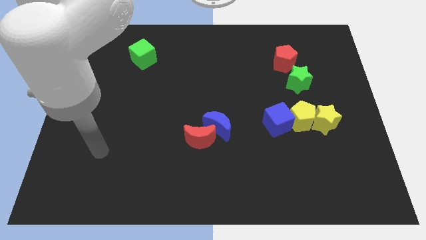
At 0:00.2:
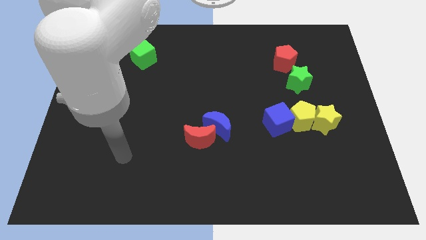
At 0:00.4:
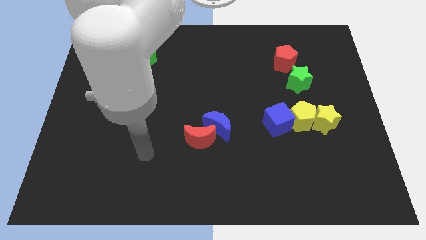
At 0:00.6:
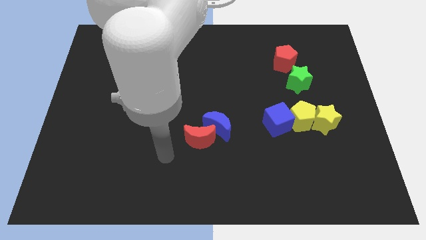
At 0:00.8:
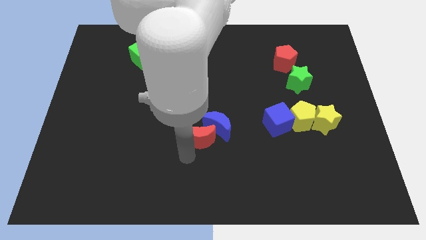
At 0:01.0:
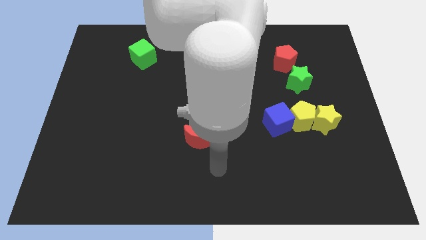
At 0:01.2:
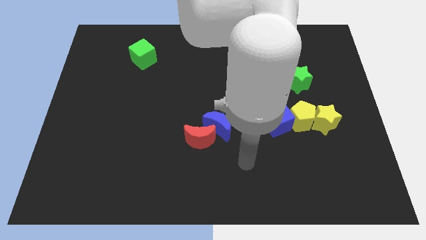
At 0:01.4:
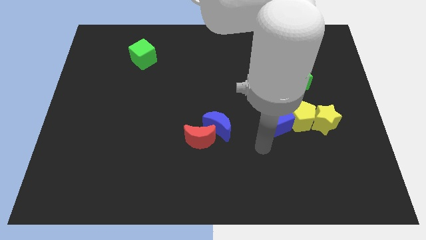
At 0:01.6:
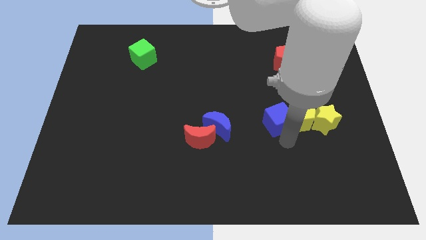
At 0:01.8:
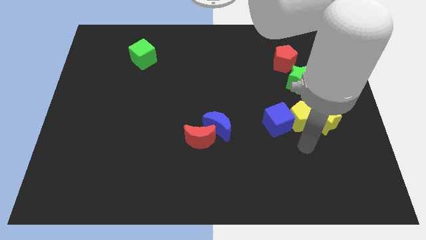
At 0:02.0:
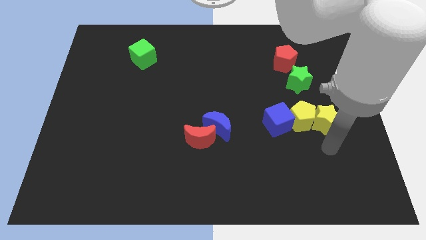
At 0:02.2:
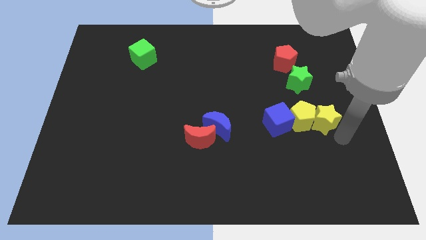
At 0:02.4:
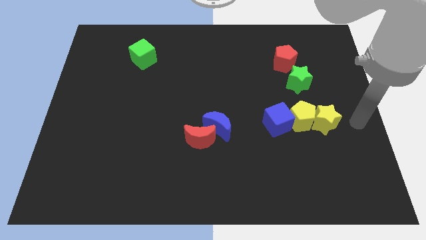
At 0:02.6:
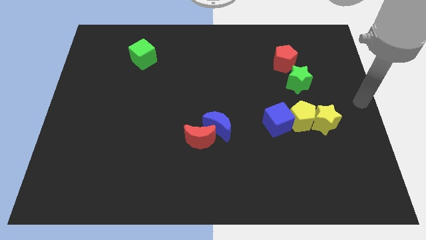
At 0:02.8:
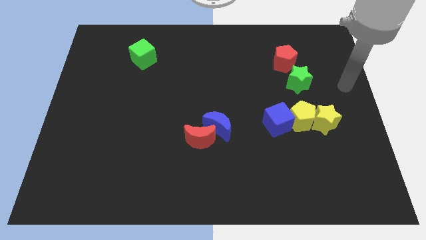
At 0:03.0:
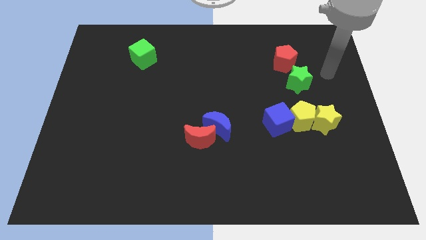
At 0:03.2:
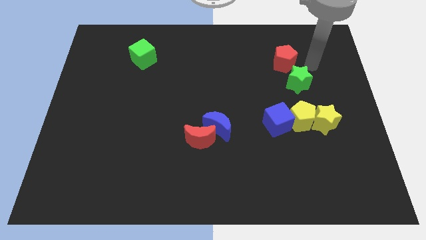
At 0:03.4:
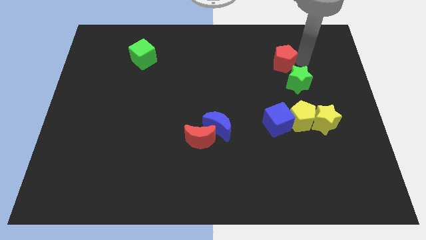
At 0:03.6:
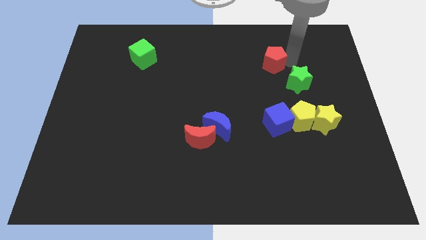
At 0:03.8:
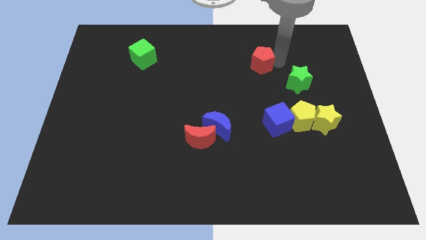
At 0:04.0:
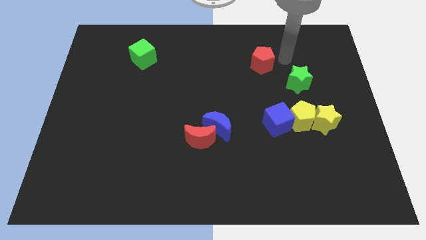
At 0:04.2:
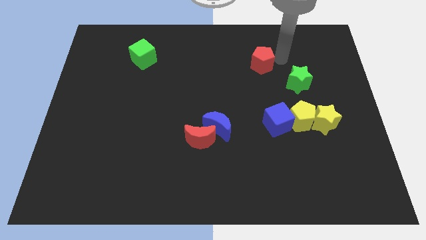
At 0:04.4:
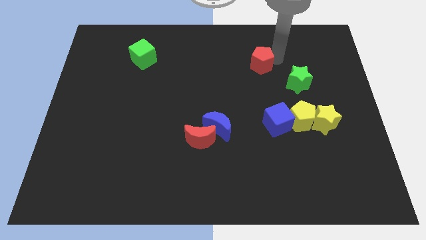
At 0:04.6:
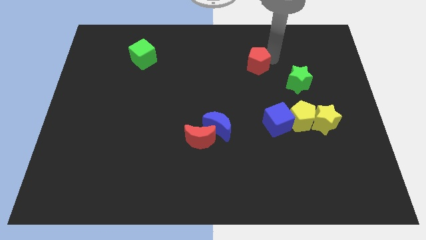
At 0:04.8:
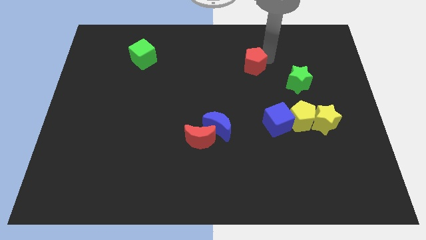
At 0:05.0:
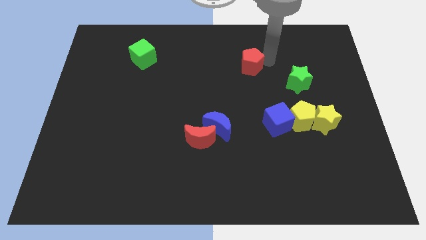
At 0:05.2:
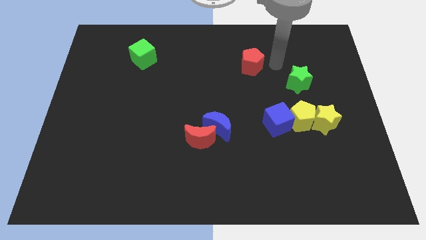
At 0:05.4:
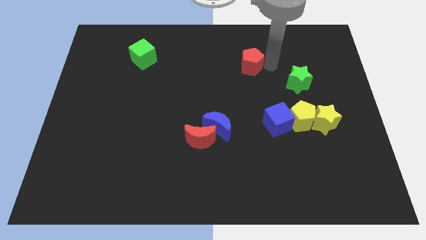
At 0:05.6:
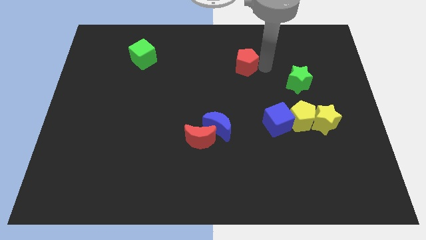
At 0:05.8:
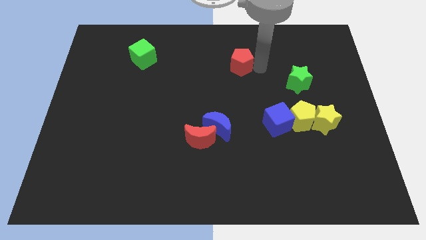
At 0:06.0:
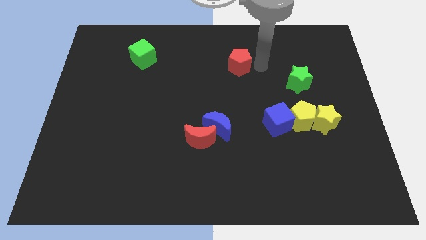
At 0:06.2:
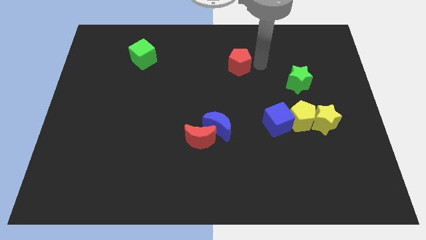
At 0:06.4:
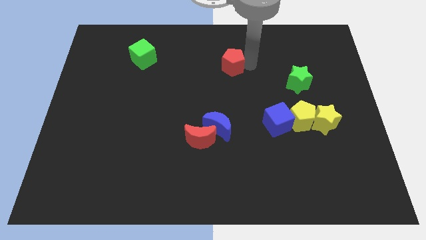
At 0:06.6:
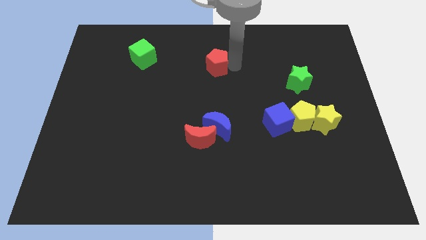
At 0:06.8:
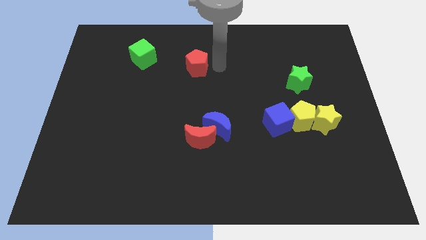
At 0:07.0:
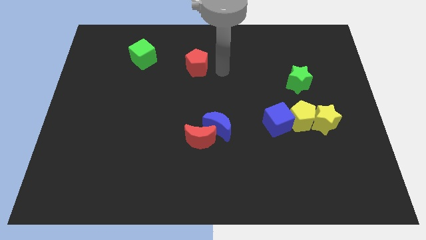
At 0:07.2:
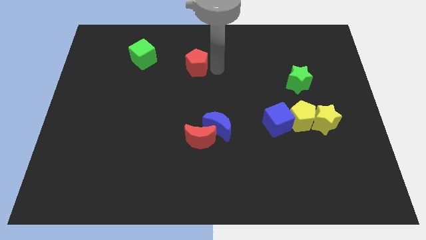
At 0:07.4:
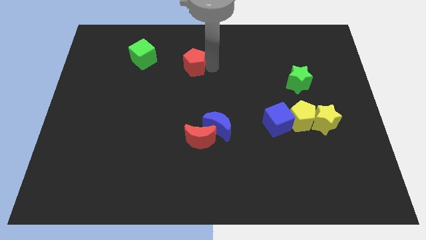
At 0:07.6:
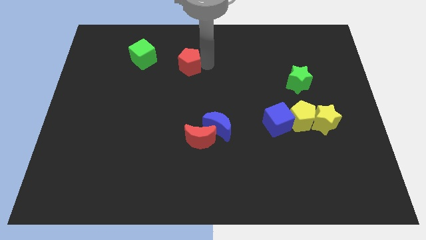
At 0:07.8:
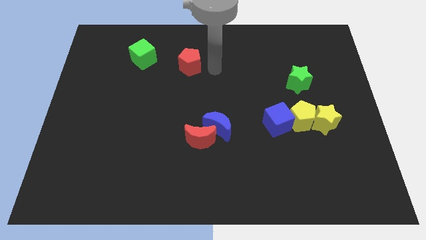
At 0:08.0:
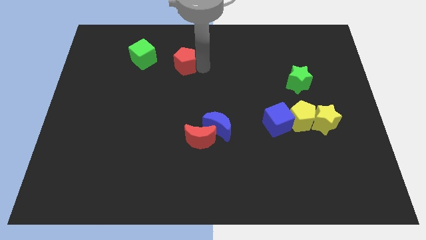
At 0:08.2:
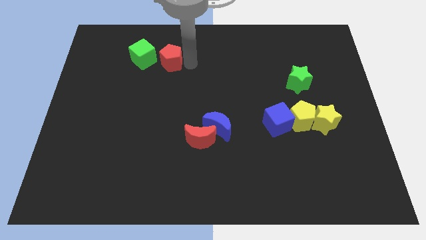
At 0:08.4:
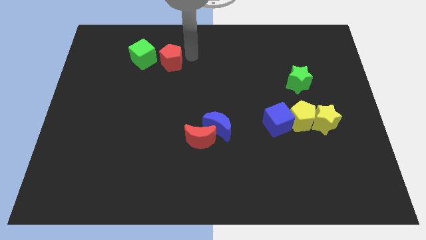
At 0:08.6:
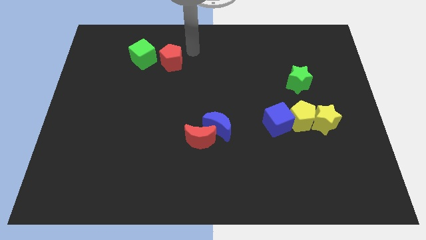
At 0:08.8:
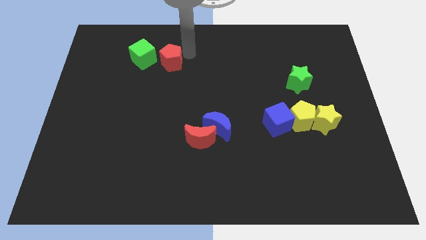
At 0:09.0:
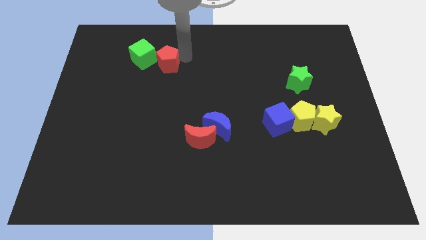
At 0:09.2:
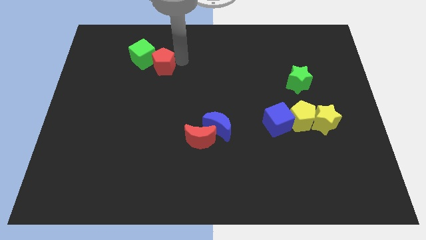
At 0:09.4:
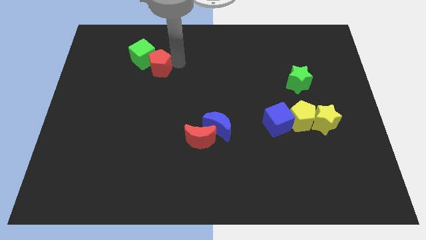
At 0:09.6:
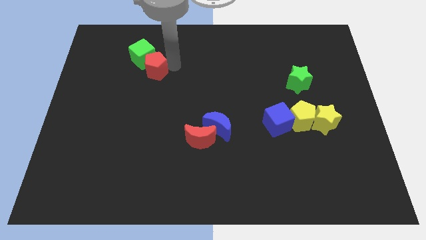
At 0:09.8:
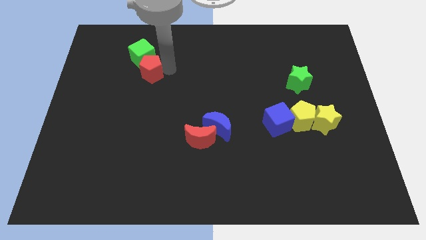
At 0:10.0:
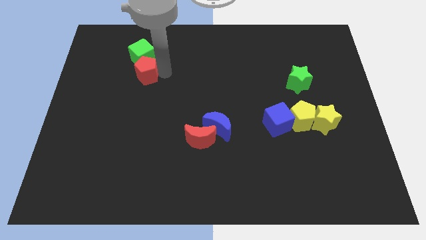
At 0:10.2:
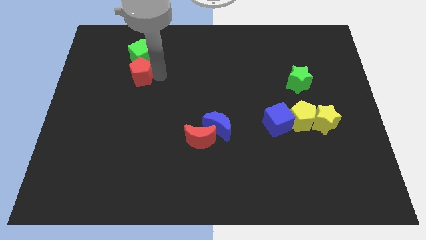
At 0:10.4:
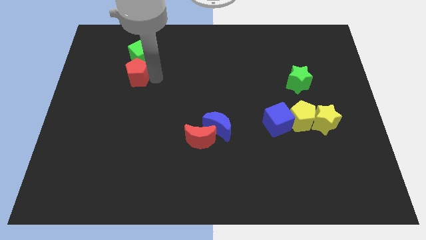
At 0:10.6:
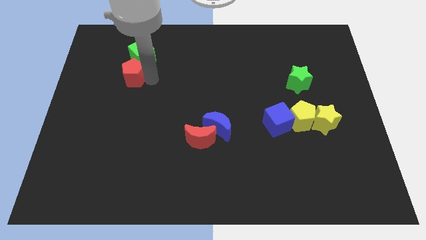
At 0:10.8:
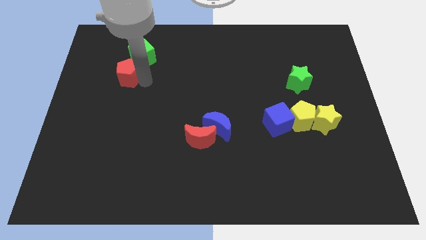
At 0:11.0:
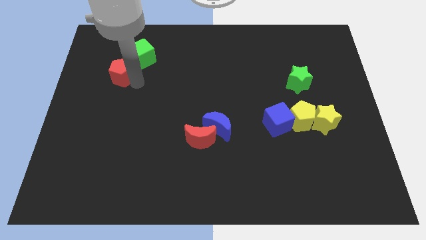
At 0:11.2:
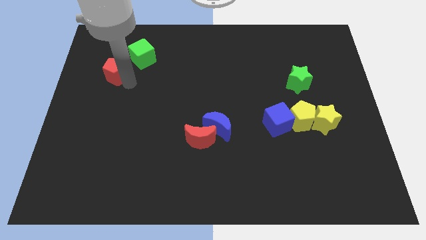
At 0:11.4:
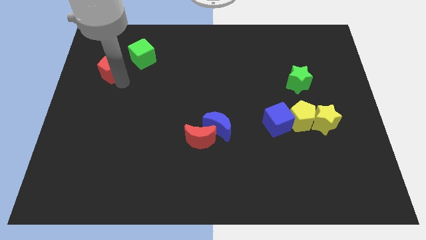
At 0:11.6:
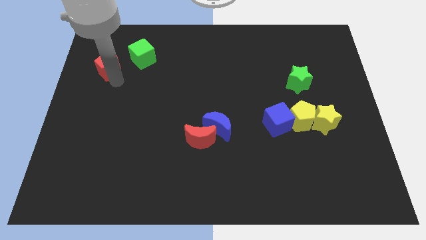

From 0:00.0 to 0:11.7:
push the red pentagon just left of the green cube
